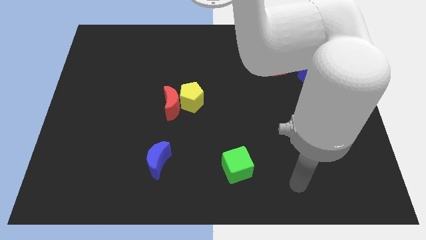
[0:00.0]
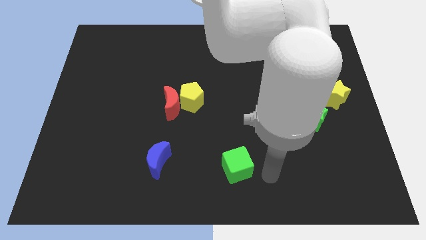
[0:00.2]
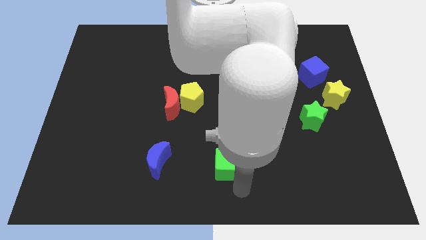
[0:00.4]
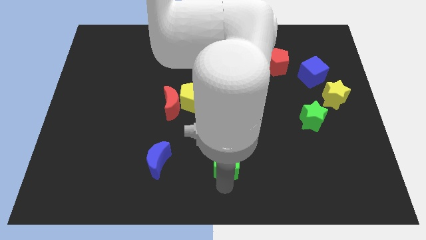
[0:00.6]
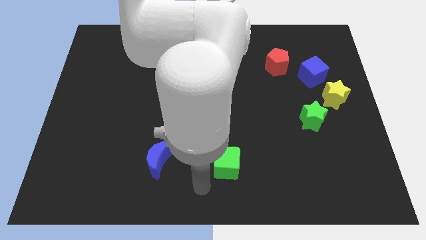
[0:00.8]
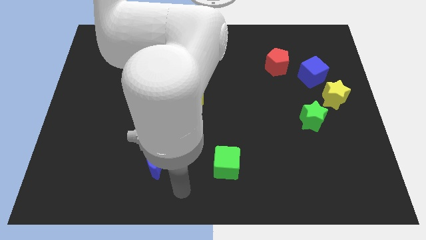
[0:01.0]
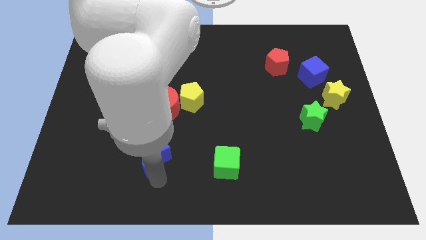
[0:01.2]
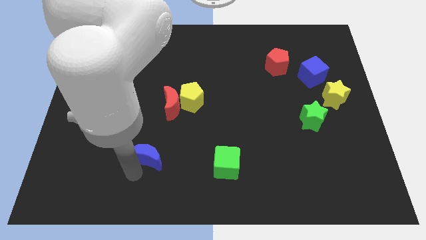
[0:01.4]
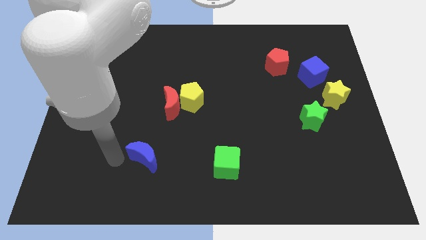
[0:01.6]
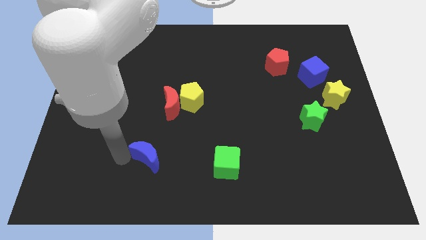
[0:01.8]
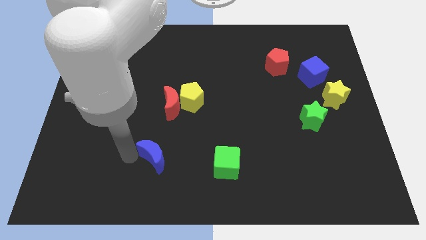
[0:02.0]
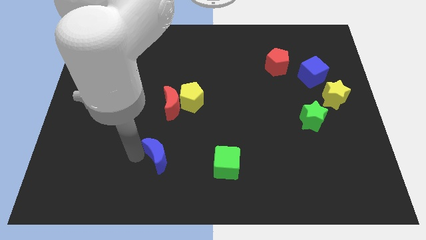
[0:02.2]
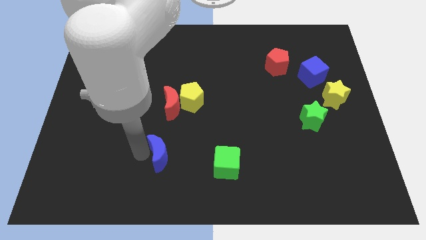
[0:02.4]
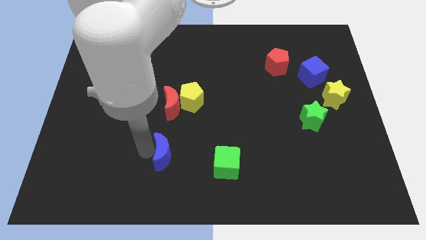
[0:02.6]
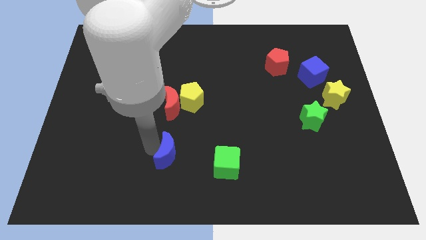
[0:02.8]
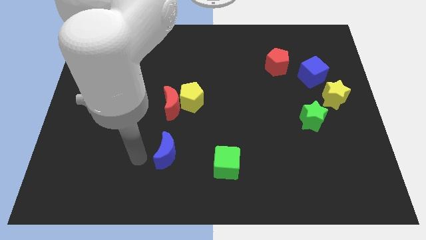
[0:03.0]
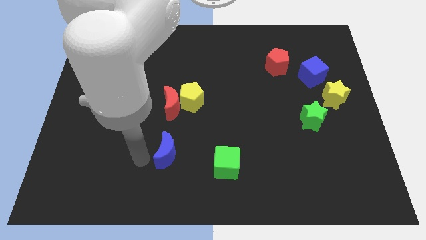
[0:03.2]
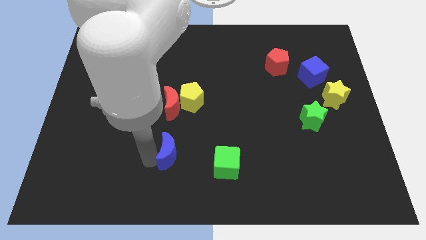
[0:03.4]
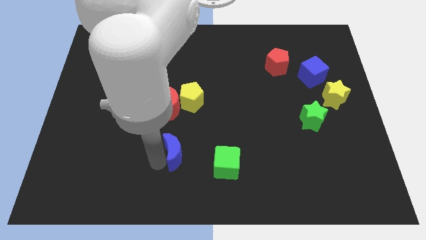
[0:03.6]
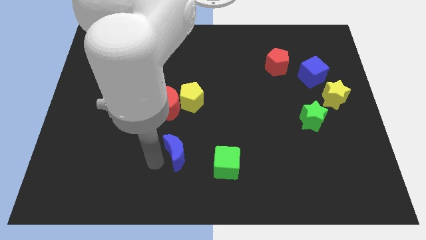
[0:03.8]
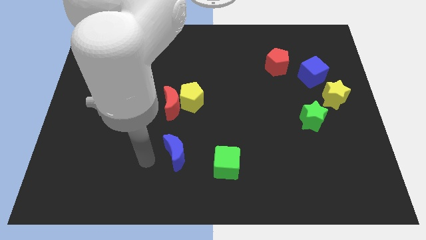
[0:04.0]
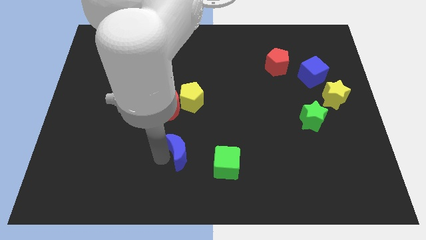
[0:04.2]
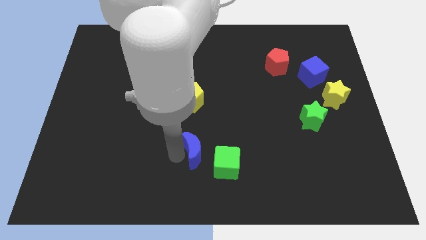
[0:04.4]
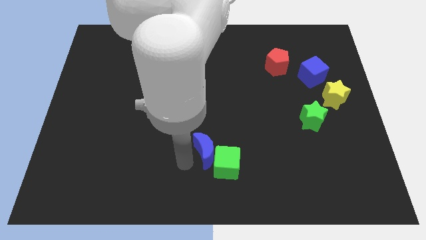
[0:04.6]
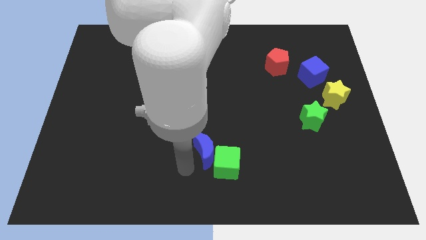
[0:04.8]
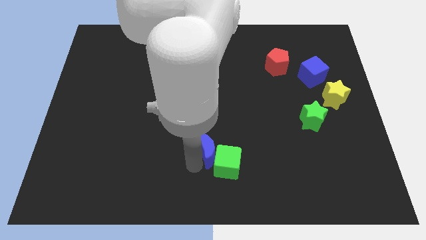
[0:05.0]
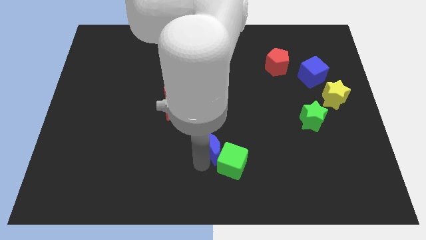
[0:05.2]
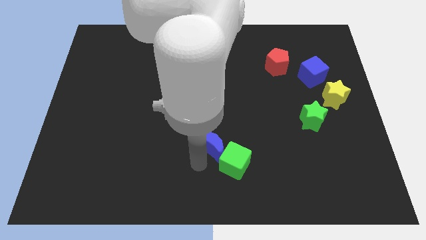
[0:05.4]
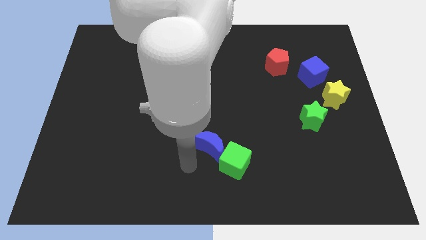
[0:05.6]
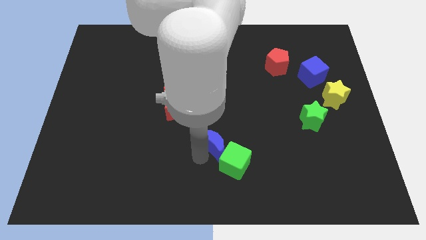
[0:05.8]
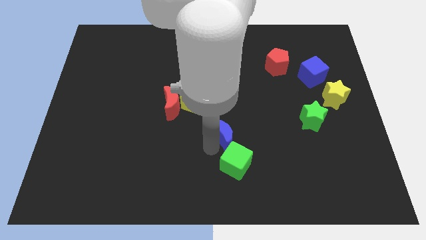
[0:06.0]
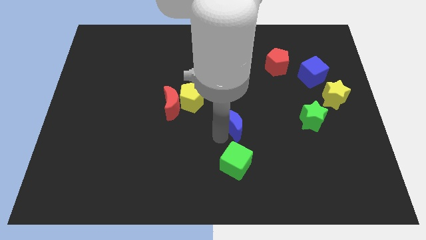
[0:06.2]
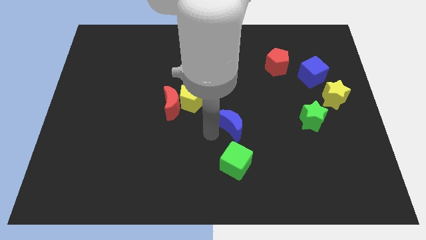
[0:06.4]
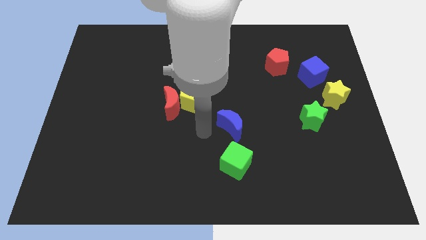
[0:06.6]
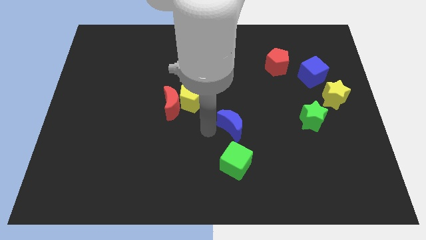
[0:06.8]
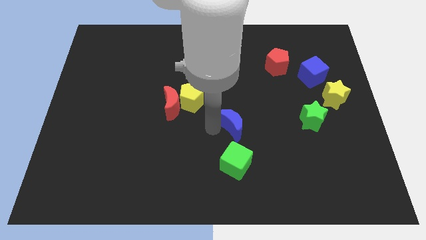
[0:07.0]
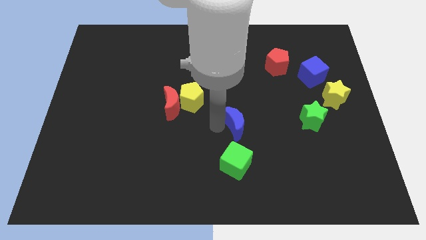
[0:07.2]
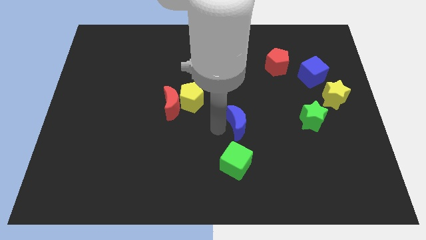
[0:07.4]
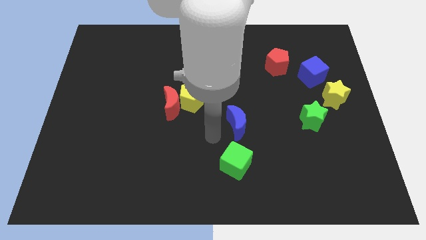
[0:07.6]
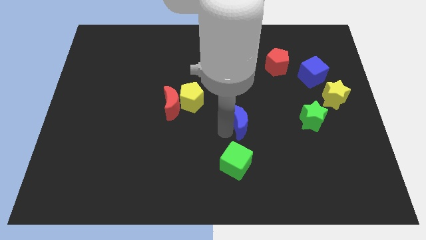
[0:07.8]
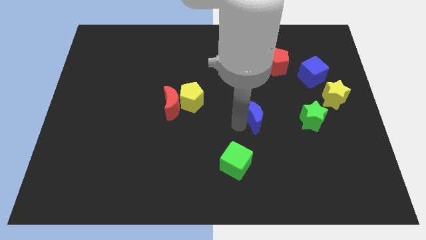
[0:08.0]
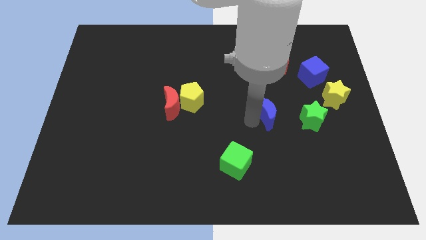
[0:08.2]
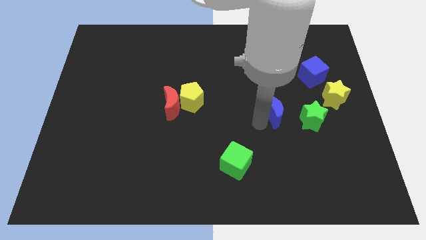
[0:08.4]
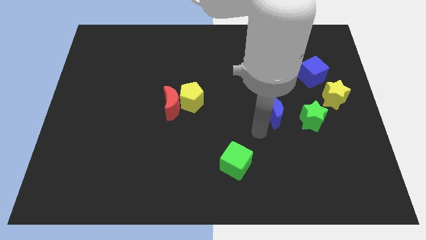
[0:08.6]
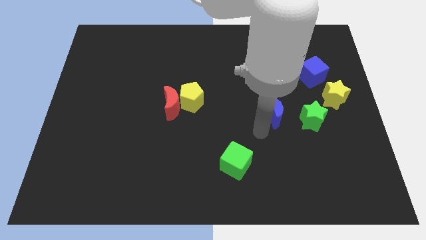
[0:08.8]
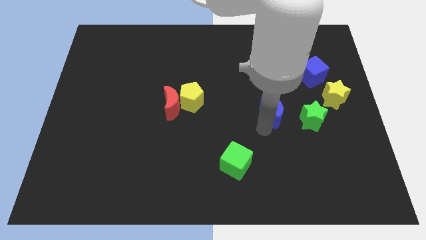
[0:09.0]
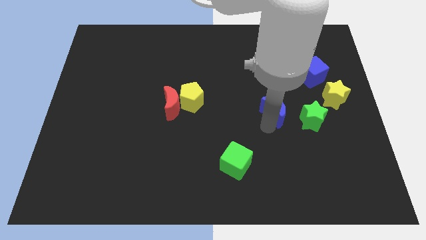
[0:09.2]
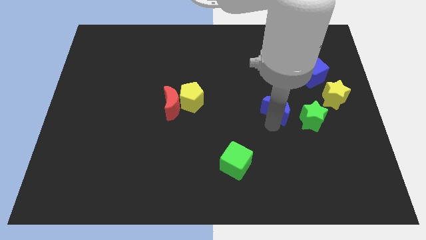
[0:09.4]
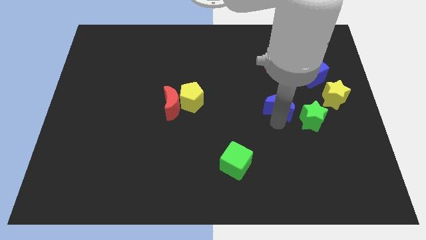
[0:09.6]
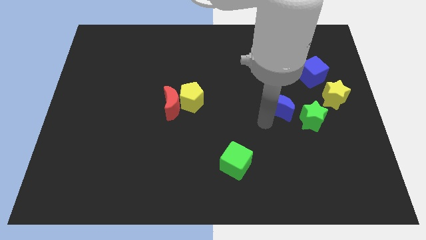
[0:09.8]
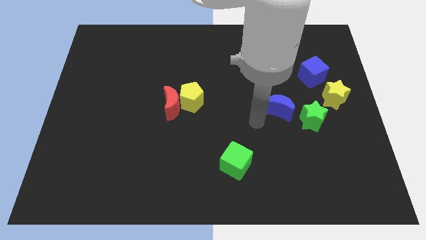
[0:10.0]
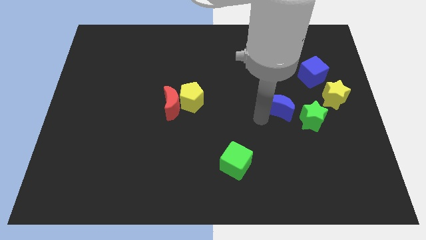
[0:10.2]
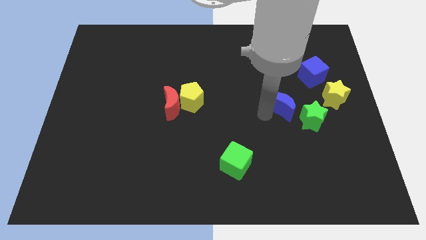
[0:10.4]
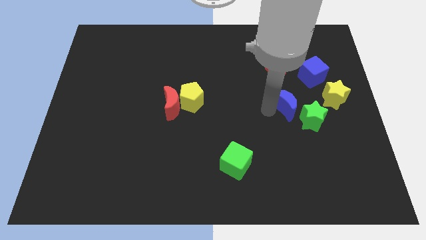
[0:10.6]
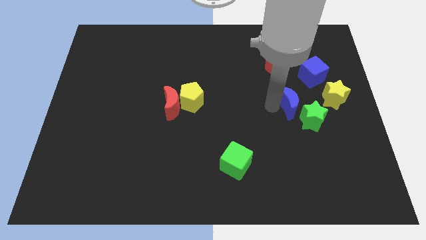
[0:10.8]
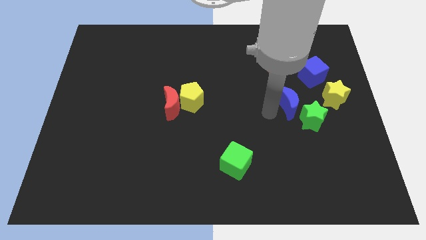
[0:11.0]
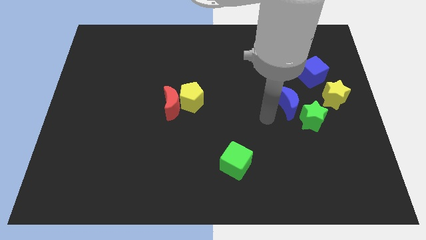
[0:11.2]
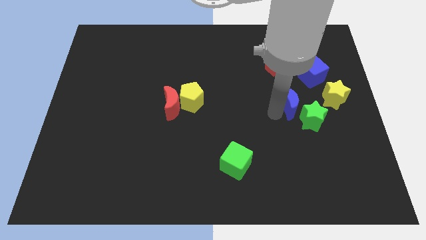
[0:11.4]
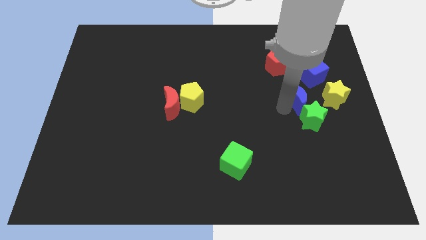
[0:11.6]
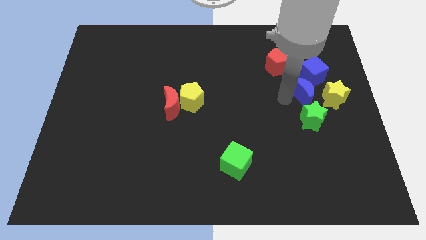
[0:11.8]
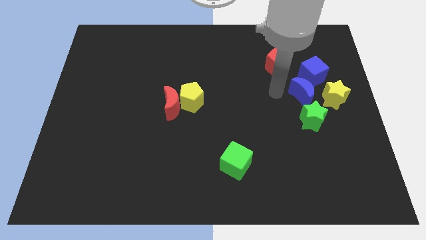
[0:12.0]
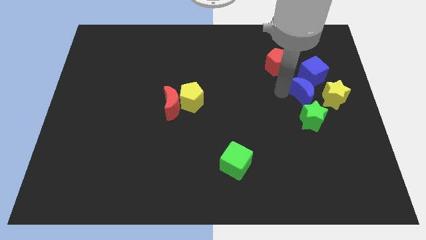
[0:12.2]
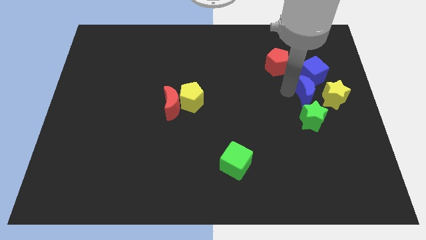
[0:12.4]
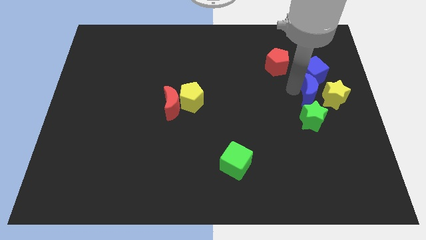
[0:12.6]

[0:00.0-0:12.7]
move the blue moon to the yellow star

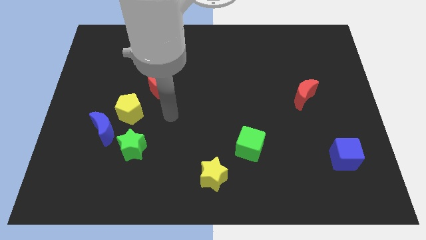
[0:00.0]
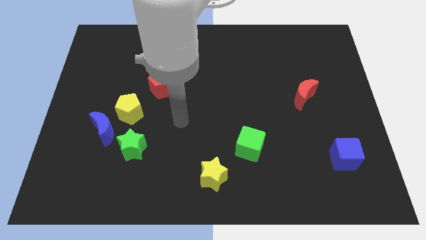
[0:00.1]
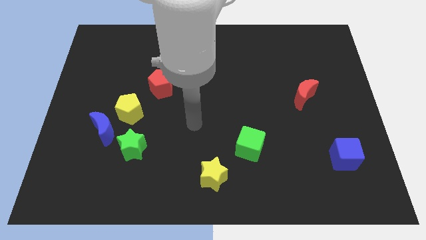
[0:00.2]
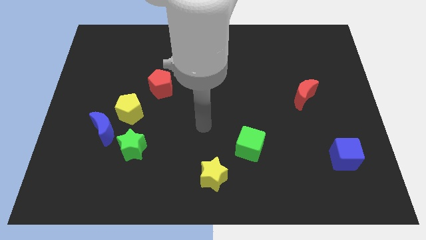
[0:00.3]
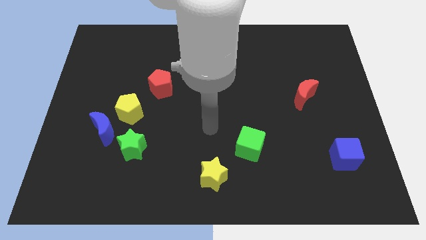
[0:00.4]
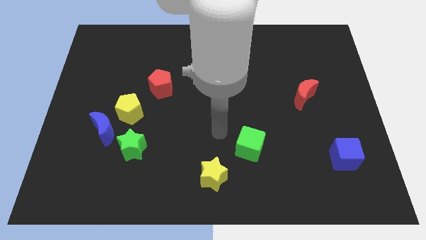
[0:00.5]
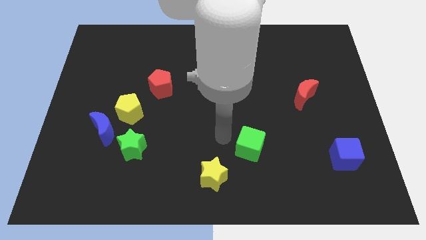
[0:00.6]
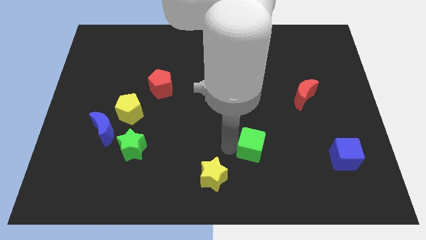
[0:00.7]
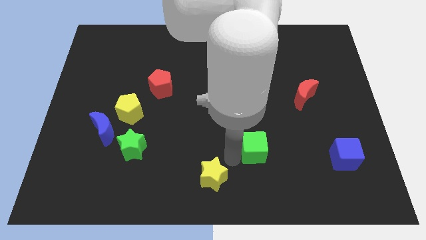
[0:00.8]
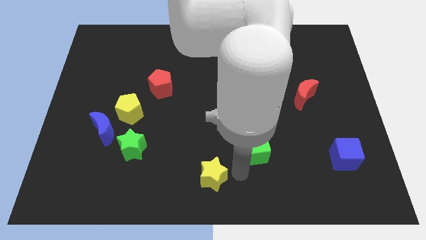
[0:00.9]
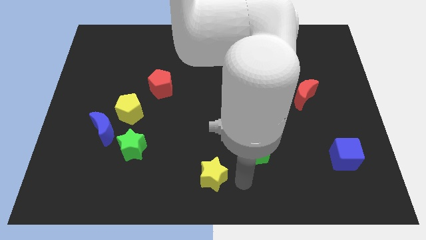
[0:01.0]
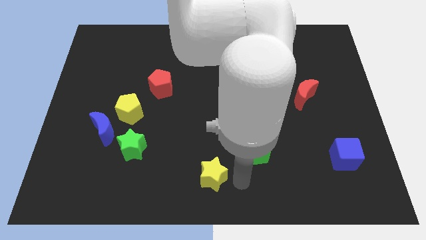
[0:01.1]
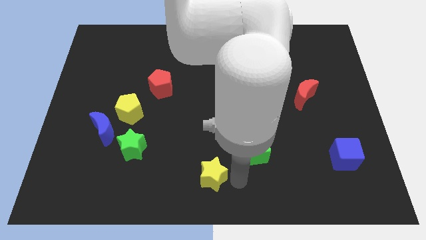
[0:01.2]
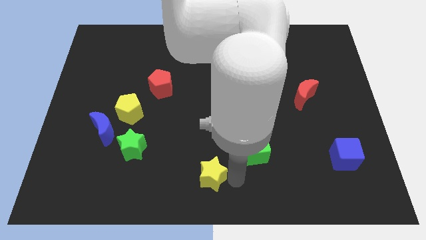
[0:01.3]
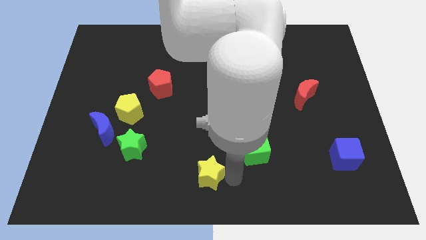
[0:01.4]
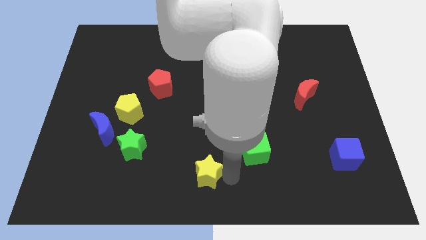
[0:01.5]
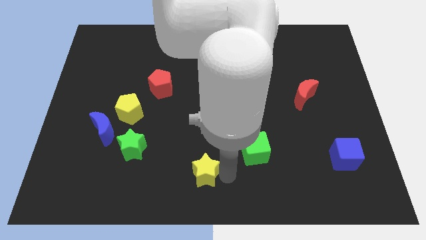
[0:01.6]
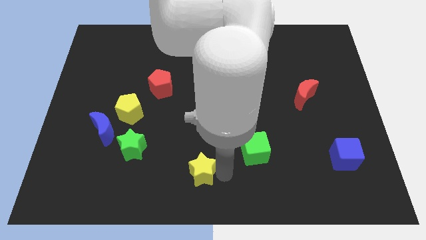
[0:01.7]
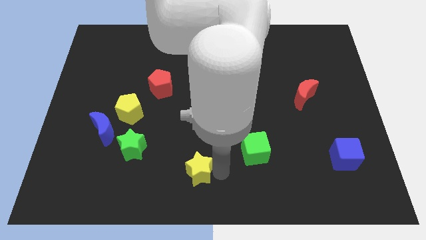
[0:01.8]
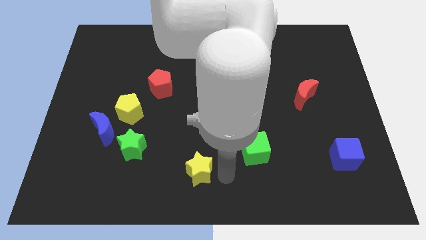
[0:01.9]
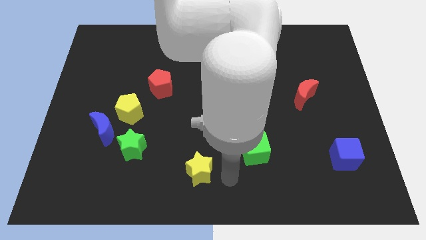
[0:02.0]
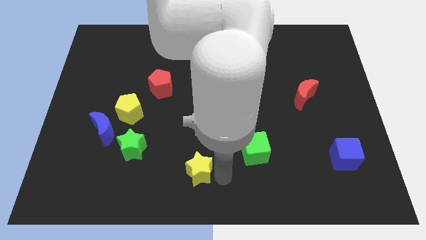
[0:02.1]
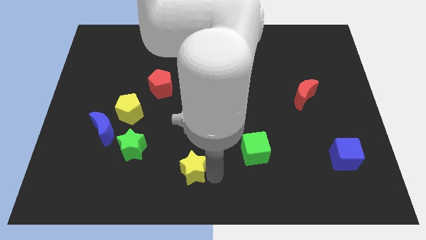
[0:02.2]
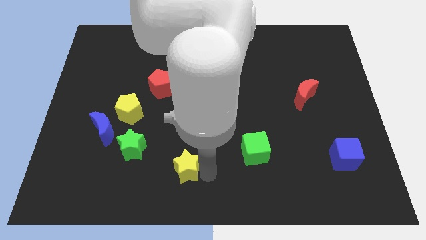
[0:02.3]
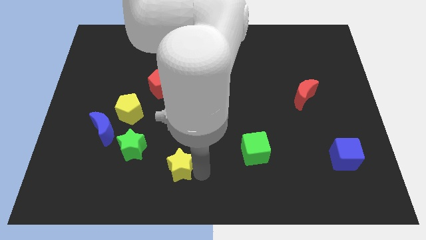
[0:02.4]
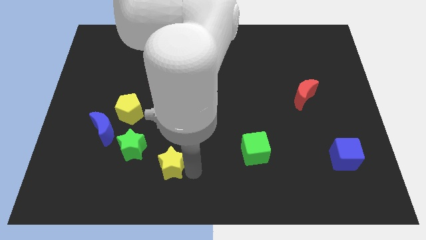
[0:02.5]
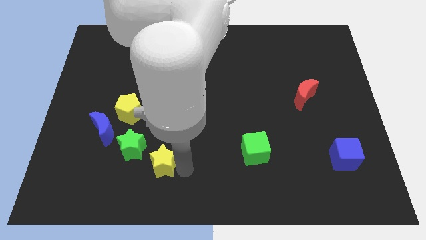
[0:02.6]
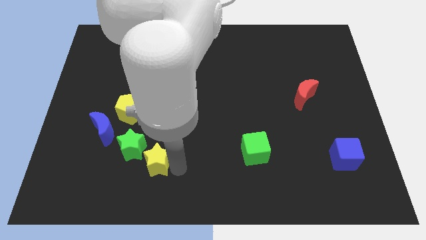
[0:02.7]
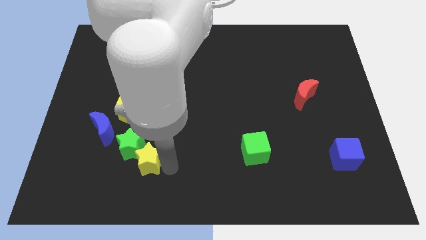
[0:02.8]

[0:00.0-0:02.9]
slide the yellow star next to the green star
